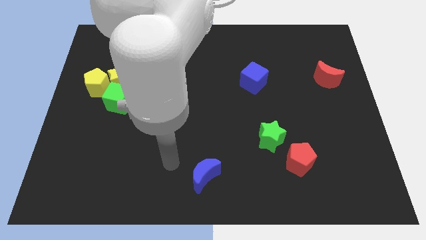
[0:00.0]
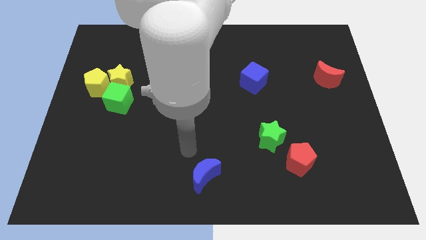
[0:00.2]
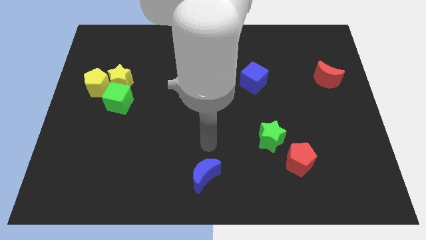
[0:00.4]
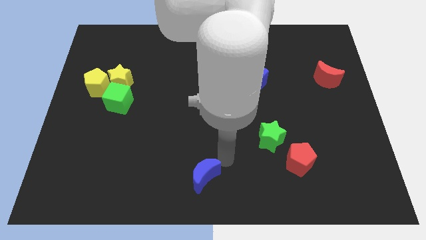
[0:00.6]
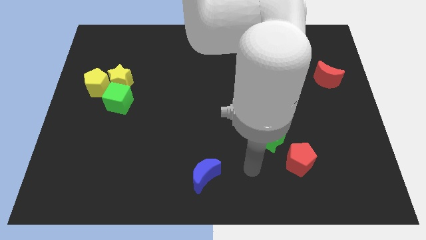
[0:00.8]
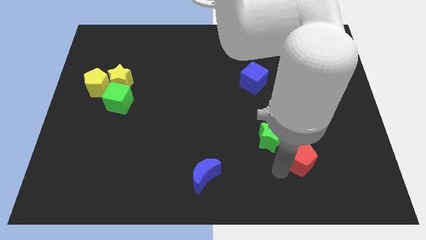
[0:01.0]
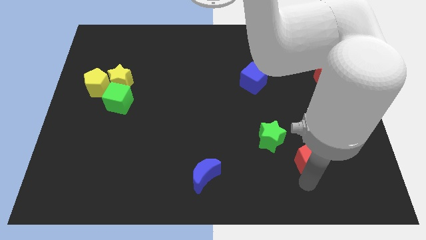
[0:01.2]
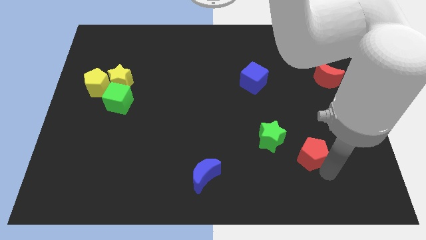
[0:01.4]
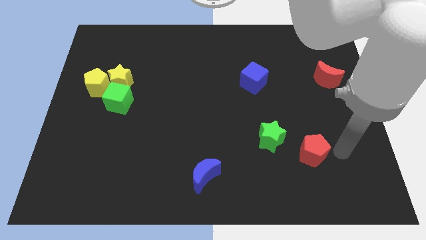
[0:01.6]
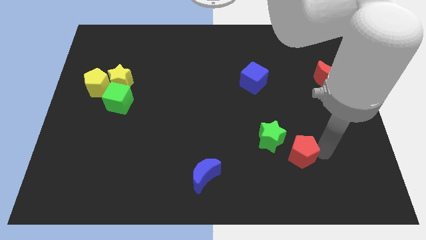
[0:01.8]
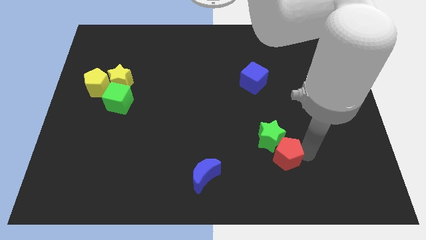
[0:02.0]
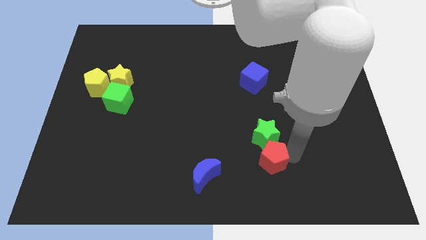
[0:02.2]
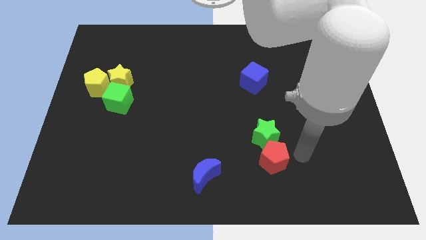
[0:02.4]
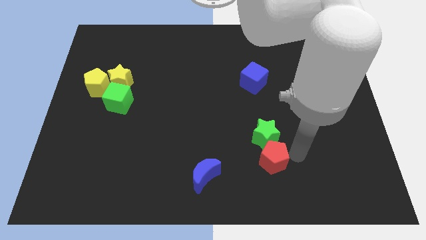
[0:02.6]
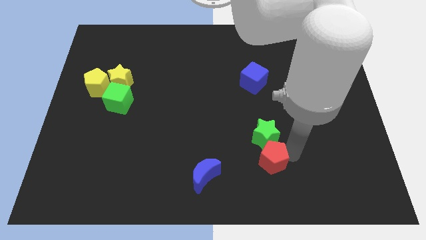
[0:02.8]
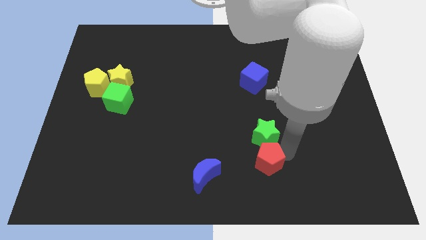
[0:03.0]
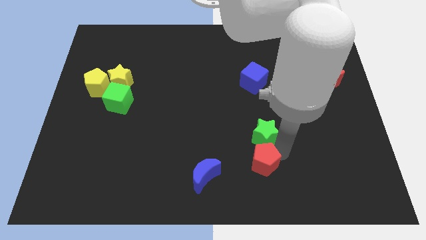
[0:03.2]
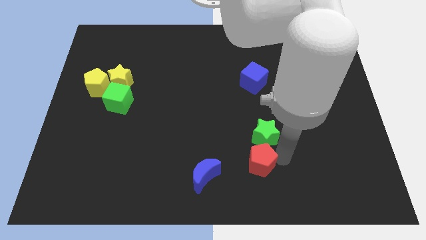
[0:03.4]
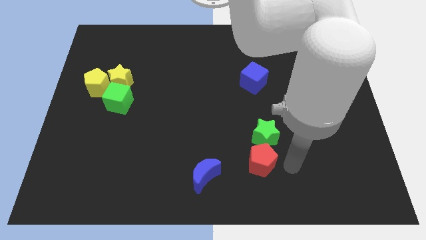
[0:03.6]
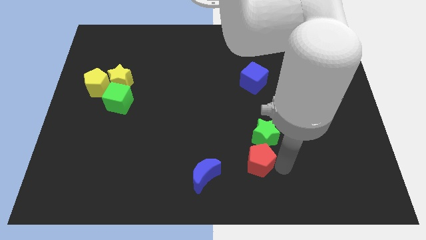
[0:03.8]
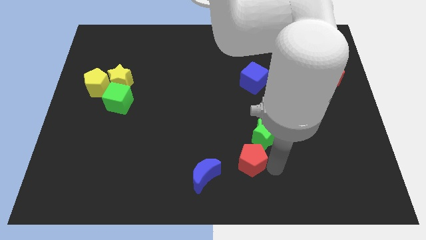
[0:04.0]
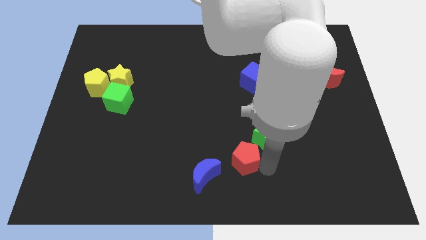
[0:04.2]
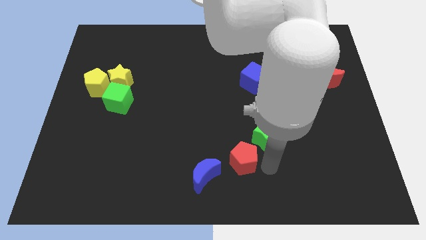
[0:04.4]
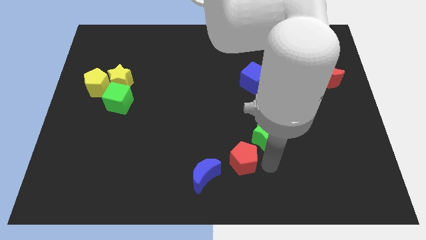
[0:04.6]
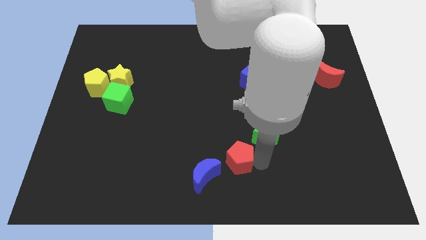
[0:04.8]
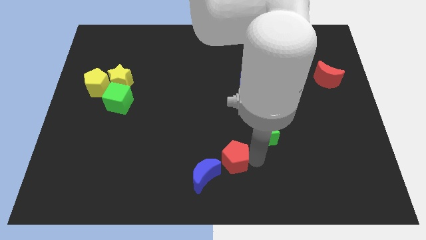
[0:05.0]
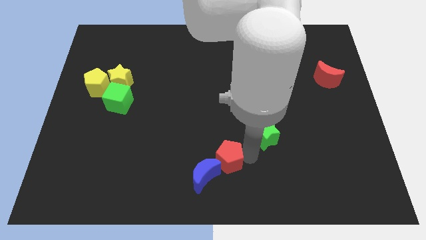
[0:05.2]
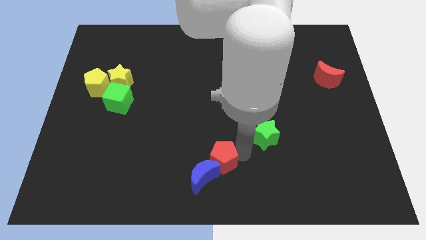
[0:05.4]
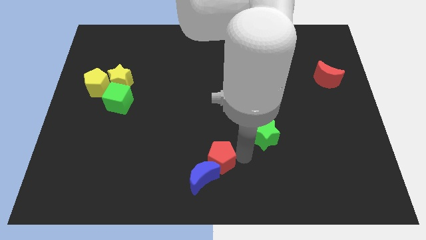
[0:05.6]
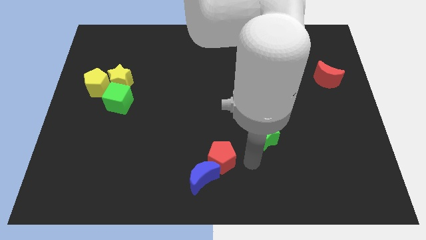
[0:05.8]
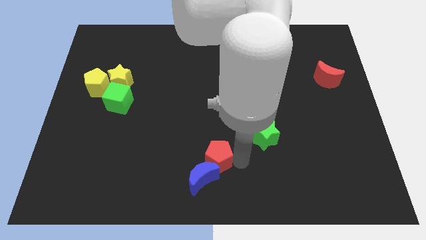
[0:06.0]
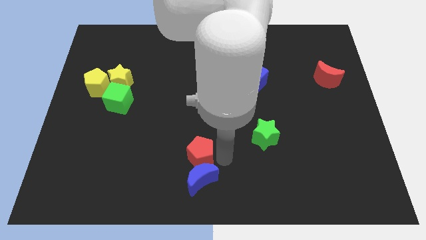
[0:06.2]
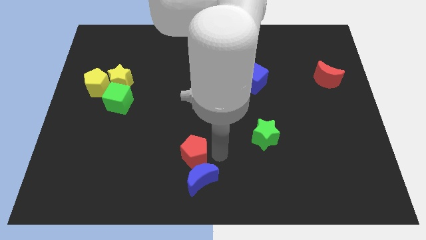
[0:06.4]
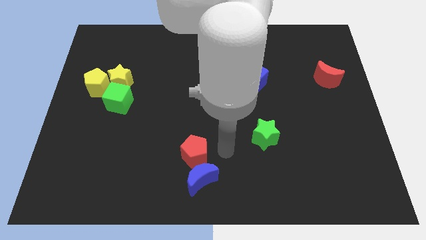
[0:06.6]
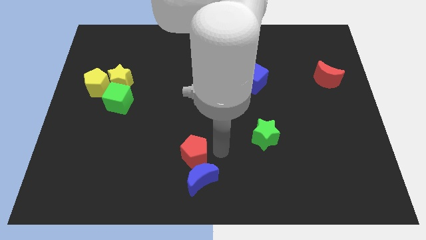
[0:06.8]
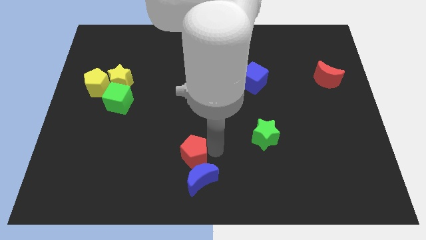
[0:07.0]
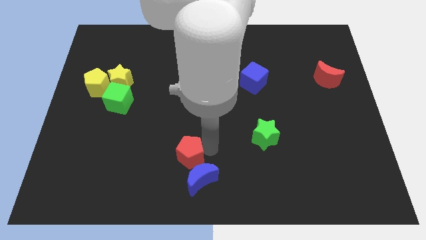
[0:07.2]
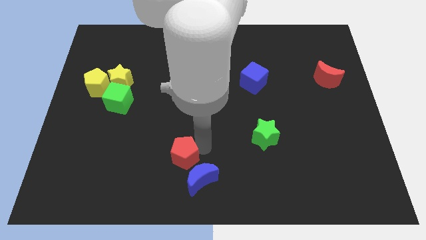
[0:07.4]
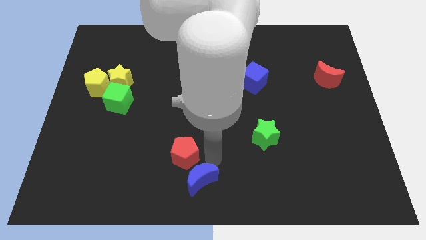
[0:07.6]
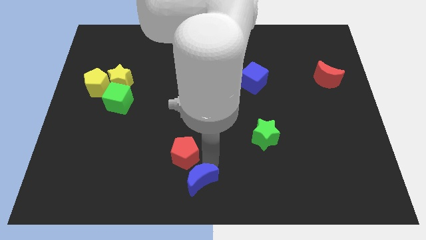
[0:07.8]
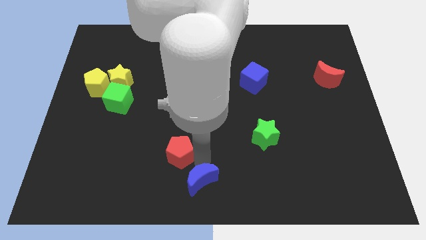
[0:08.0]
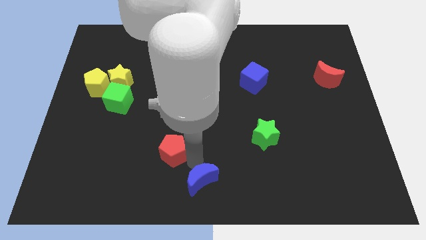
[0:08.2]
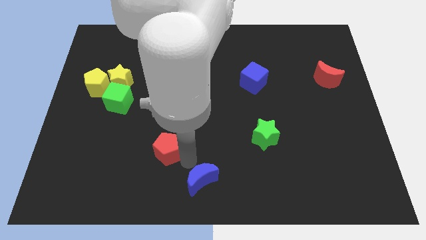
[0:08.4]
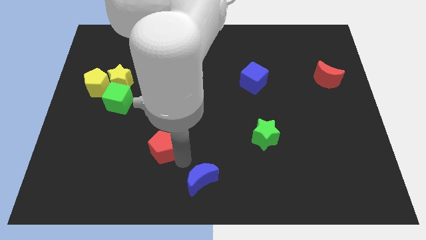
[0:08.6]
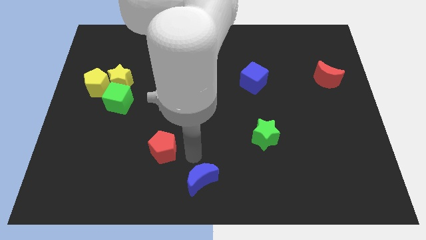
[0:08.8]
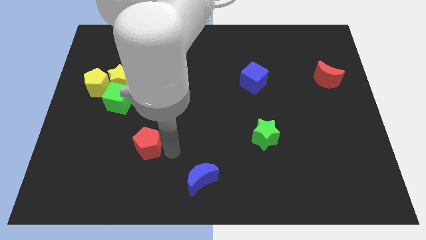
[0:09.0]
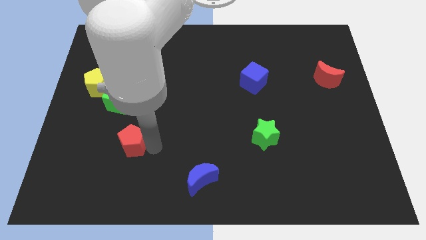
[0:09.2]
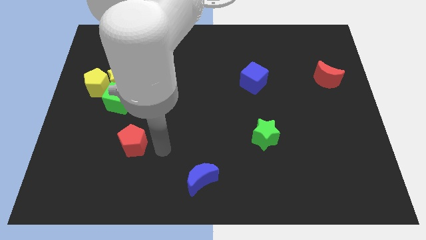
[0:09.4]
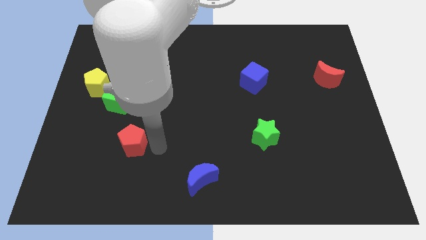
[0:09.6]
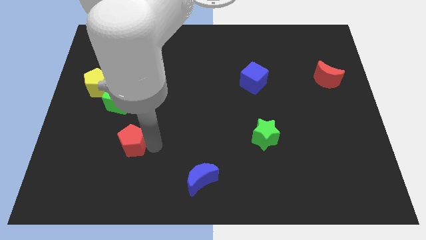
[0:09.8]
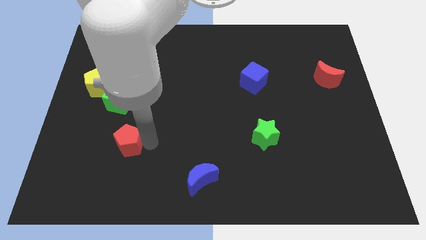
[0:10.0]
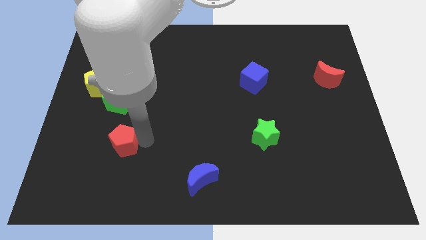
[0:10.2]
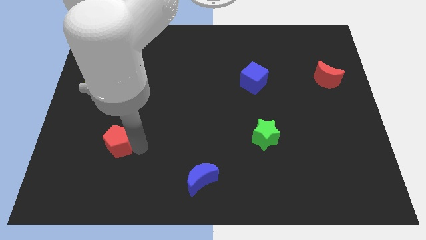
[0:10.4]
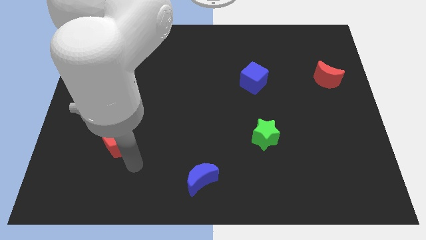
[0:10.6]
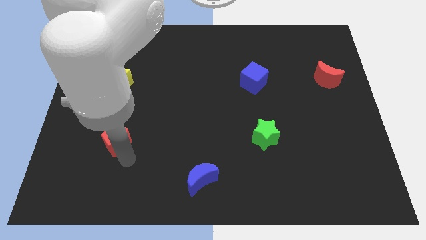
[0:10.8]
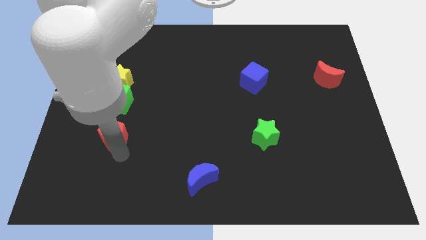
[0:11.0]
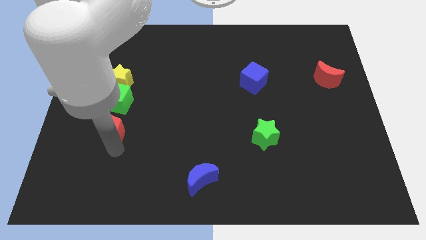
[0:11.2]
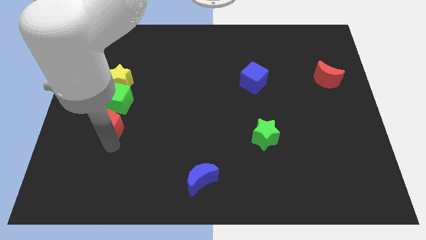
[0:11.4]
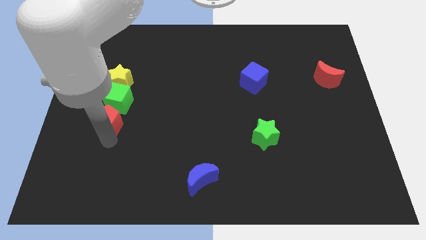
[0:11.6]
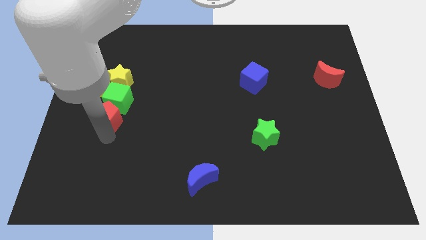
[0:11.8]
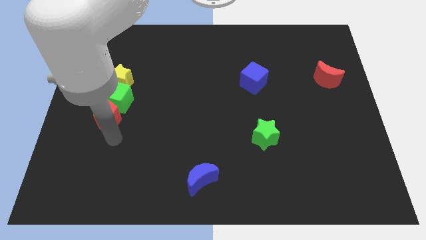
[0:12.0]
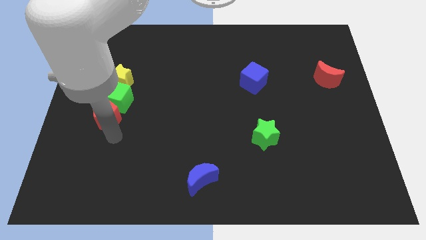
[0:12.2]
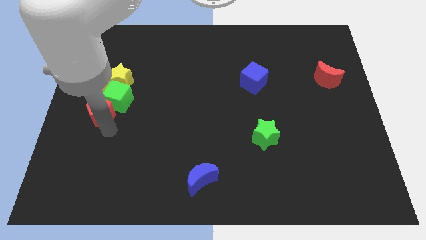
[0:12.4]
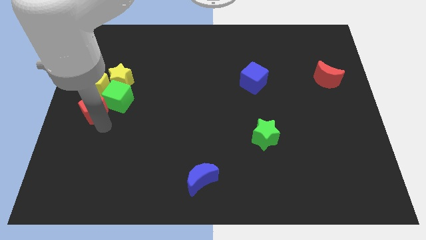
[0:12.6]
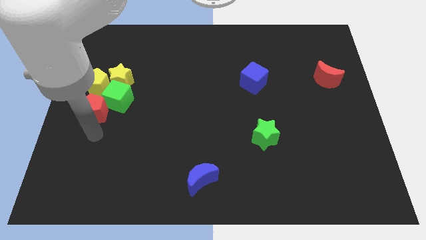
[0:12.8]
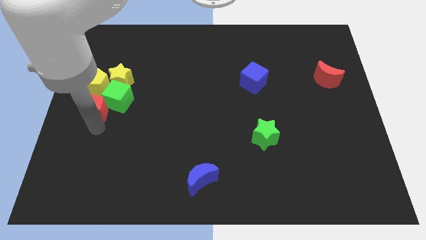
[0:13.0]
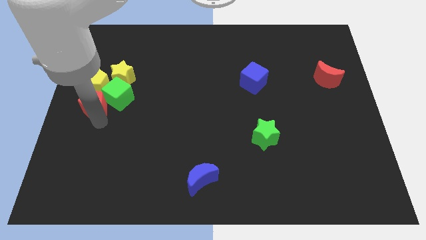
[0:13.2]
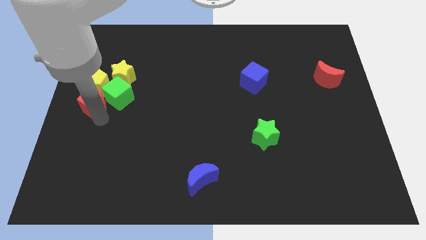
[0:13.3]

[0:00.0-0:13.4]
move the red pentagon to the yellow pentagon

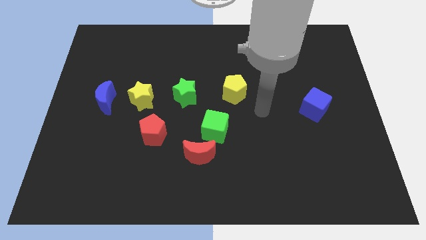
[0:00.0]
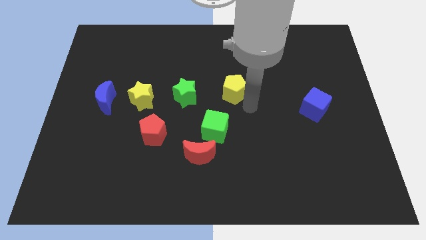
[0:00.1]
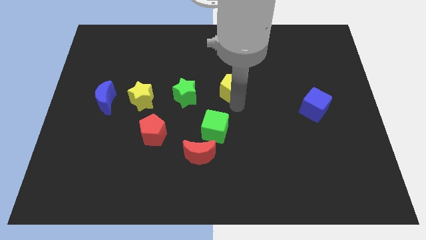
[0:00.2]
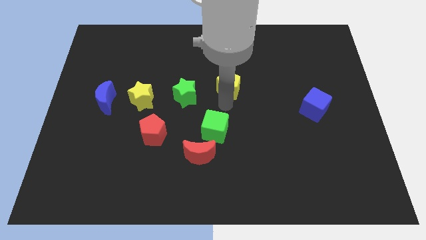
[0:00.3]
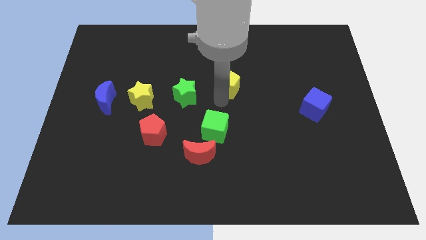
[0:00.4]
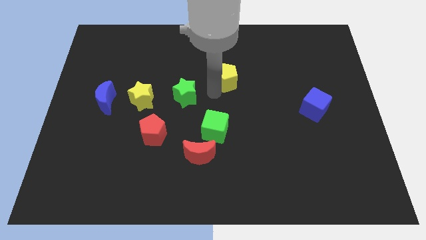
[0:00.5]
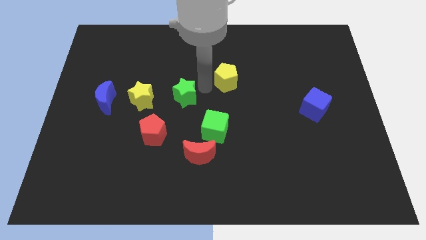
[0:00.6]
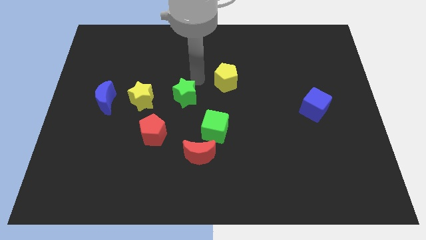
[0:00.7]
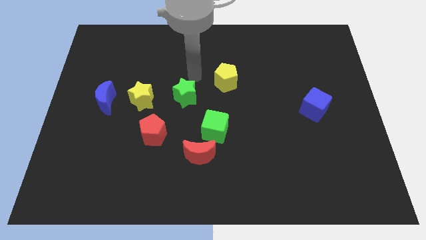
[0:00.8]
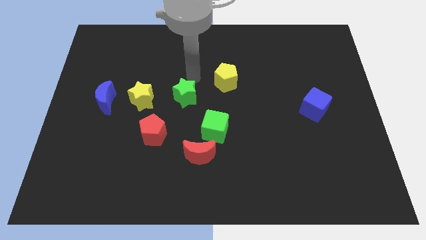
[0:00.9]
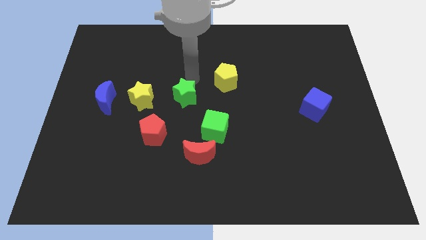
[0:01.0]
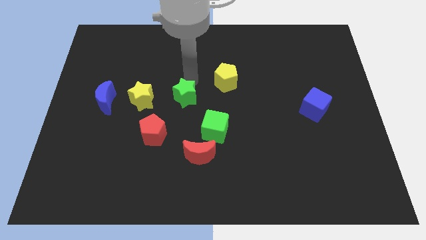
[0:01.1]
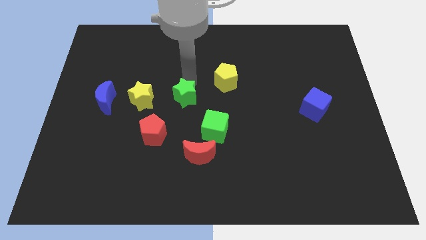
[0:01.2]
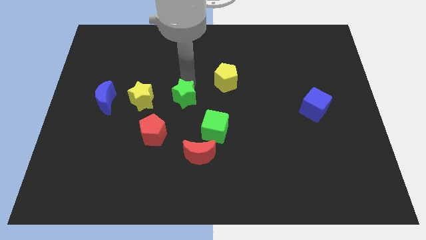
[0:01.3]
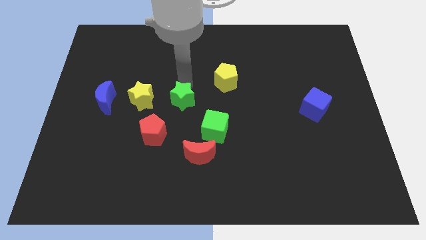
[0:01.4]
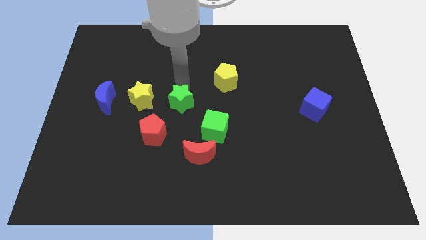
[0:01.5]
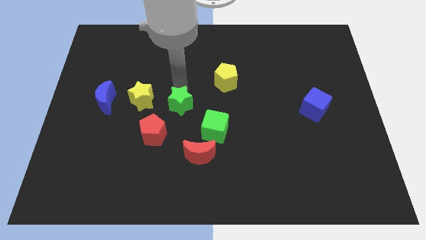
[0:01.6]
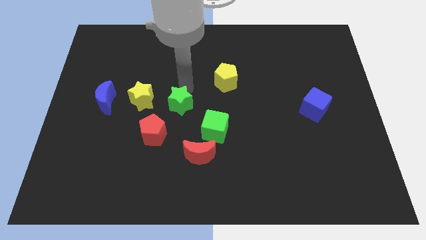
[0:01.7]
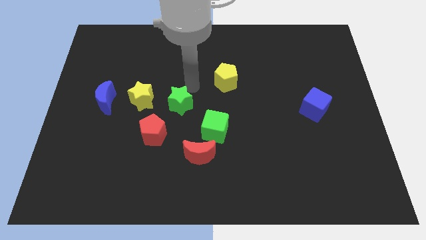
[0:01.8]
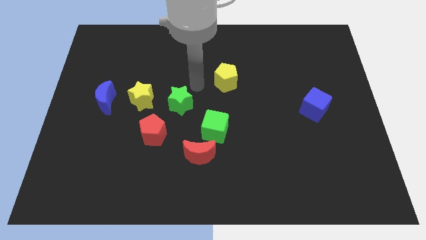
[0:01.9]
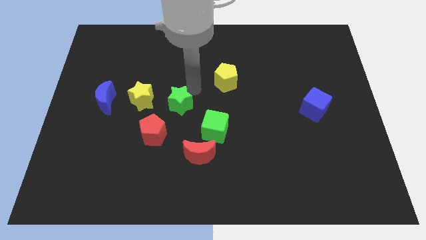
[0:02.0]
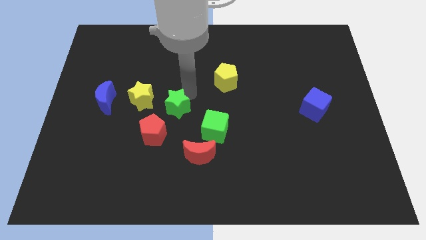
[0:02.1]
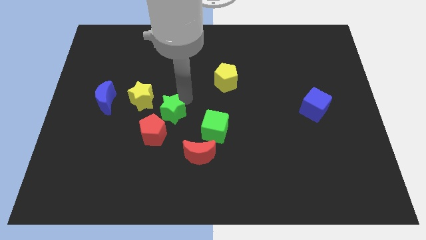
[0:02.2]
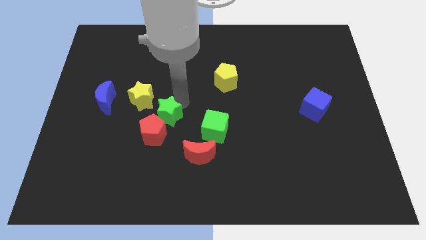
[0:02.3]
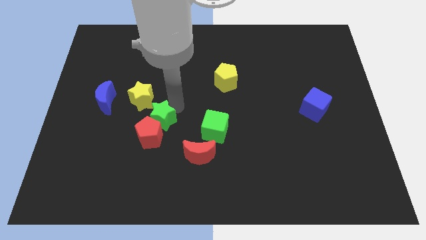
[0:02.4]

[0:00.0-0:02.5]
move the green star close to the red pentagon
